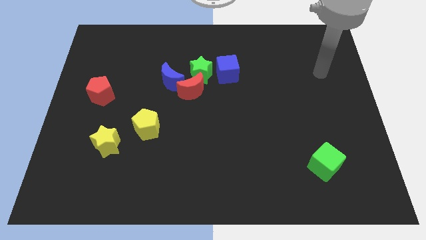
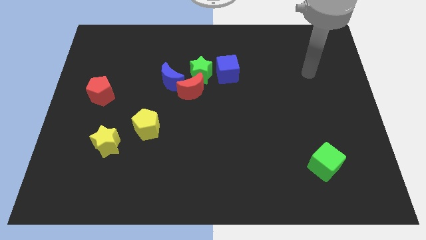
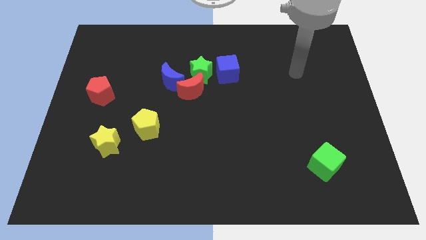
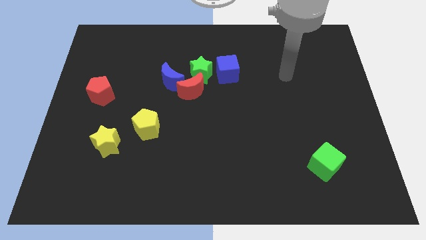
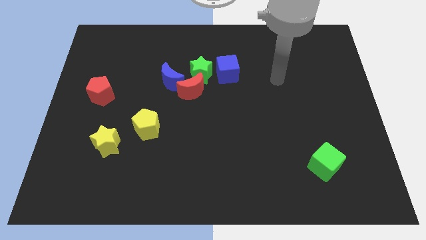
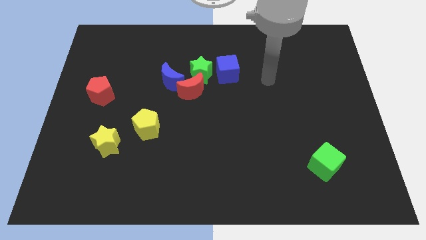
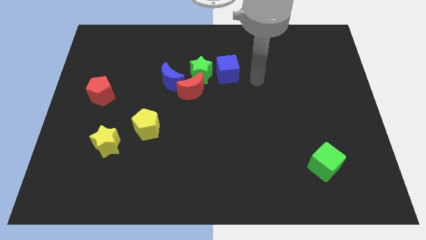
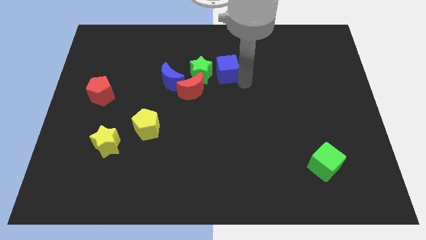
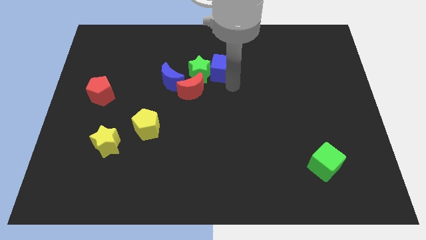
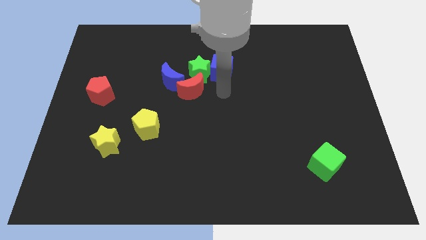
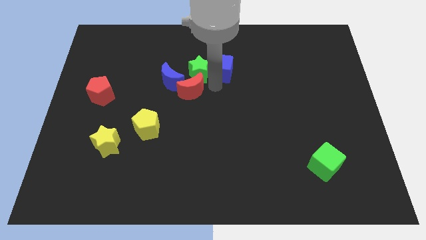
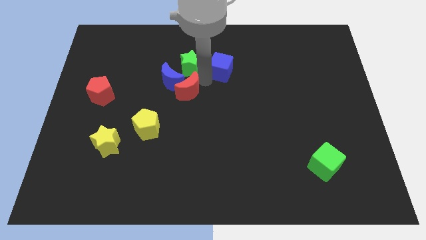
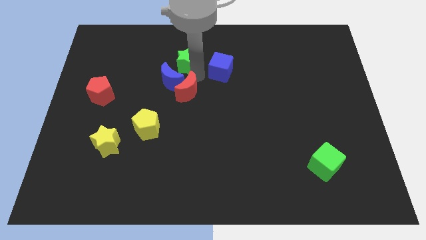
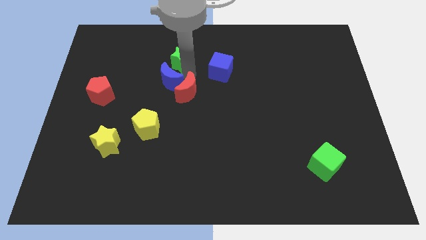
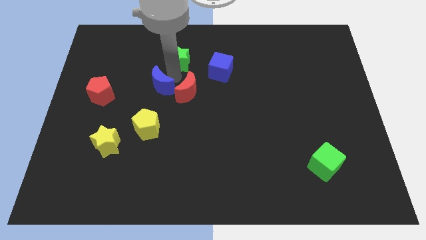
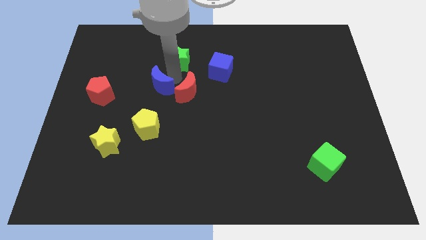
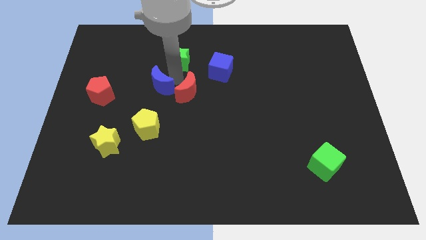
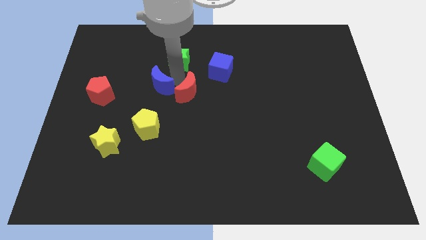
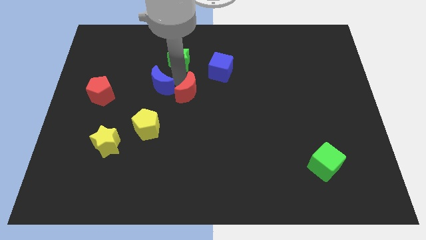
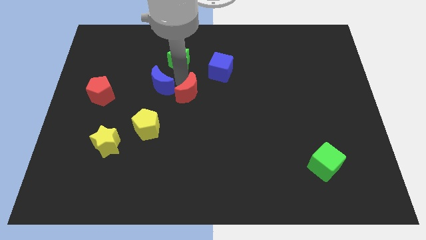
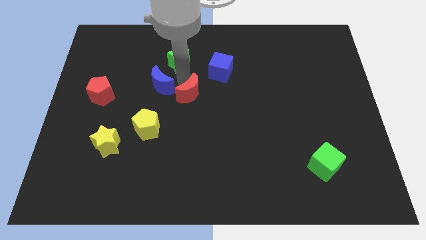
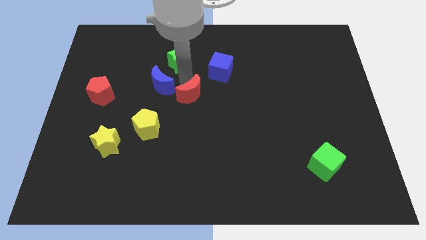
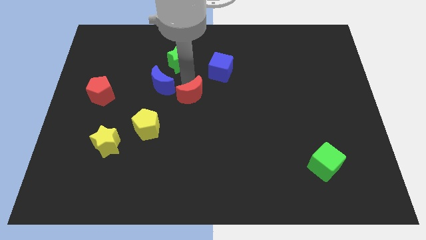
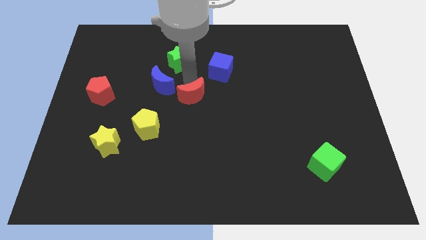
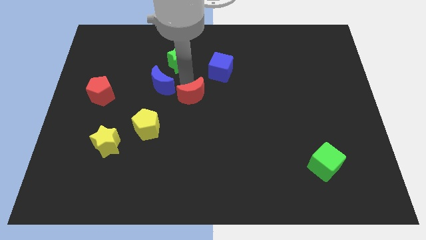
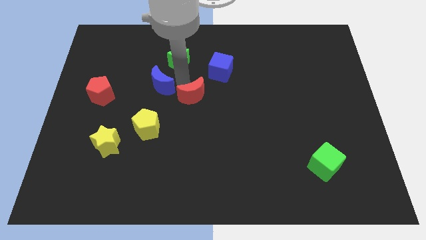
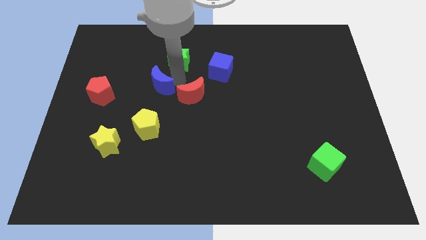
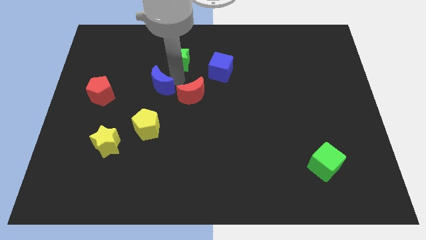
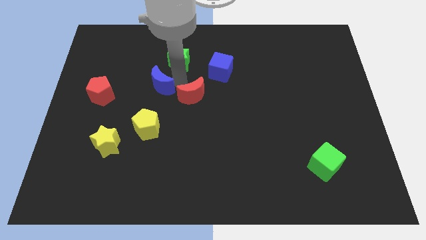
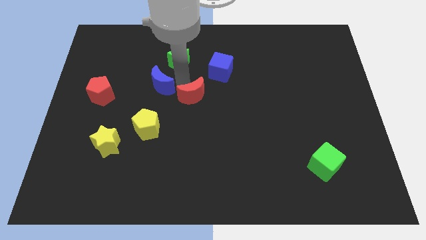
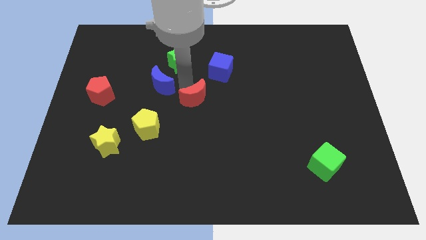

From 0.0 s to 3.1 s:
pull the red moon apart from the green star and blue moon

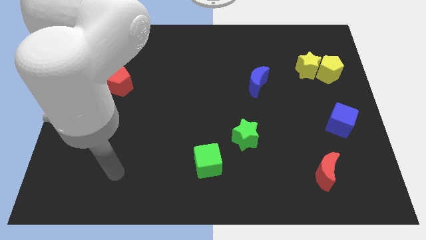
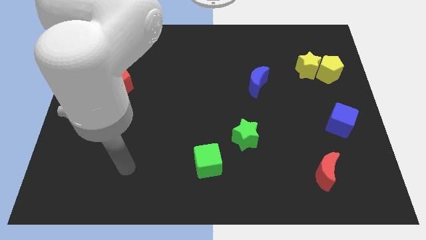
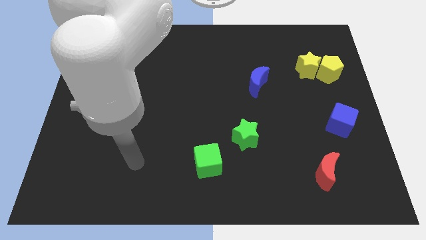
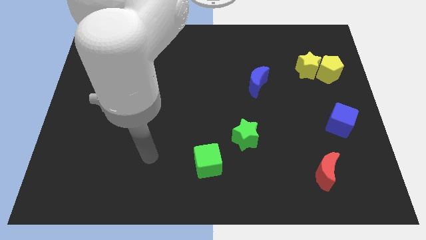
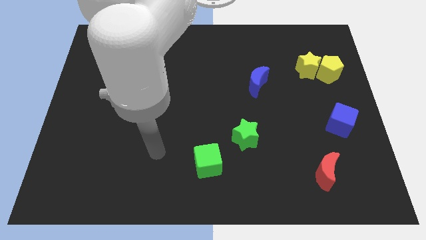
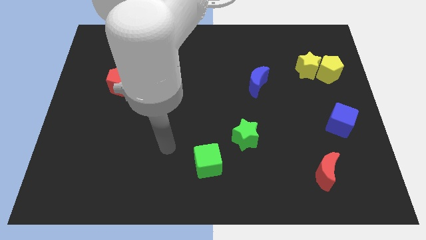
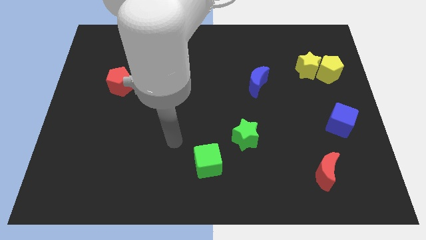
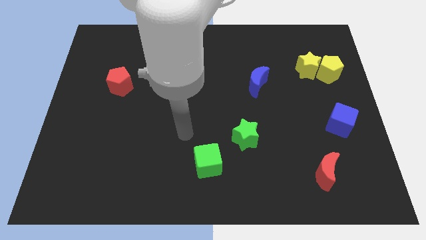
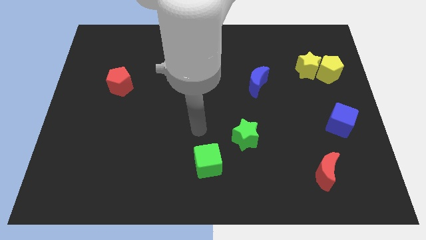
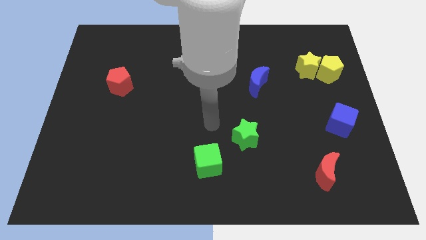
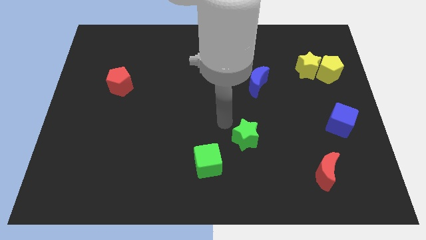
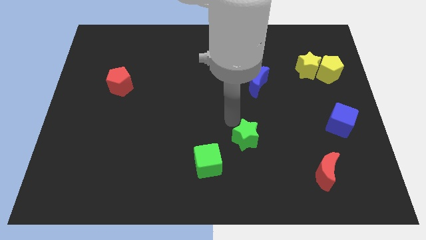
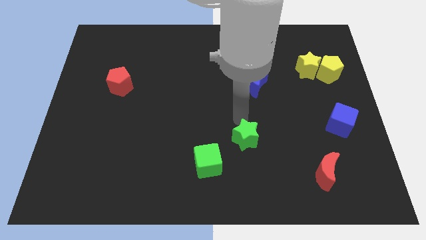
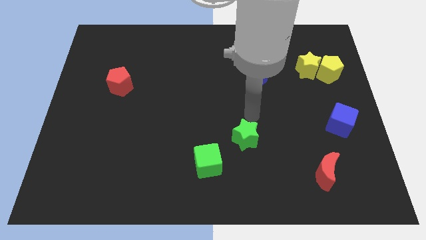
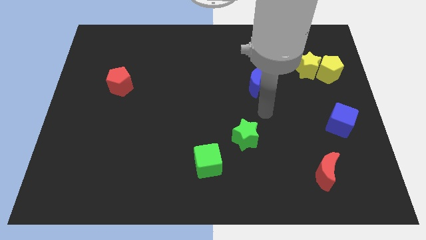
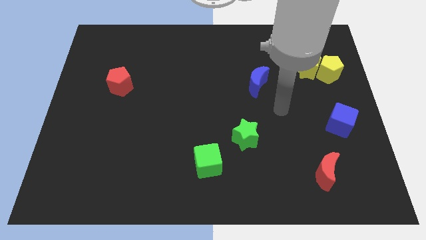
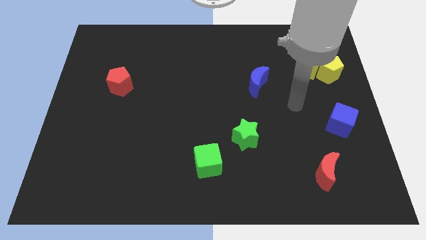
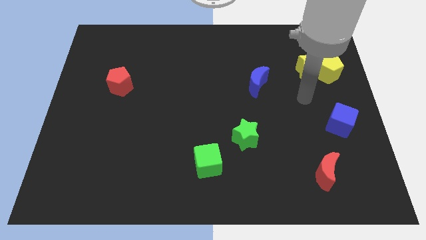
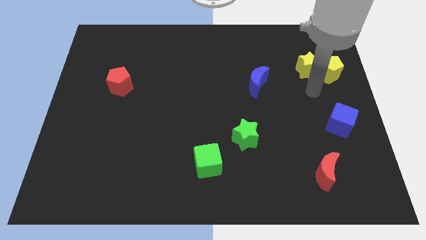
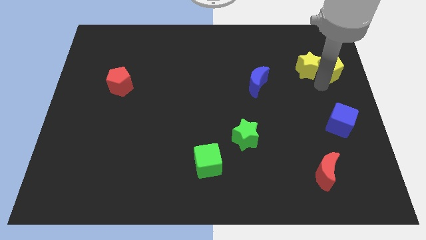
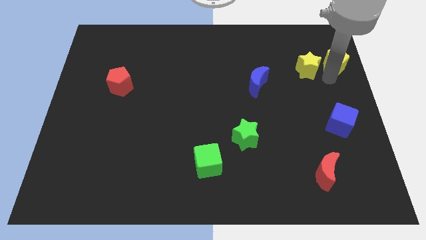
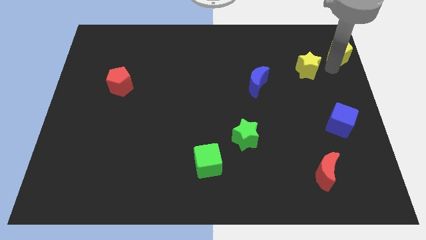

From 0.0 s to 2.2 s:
move the yellow star away from the yellow pentagon

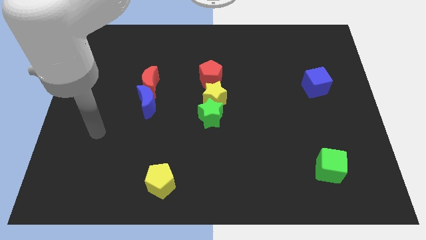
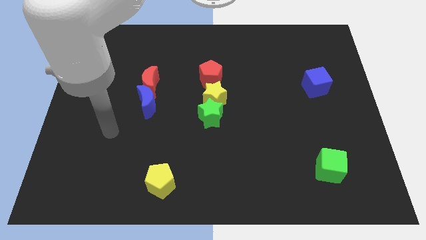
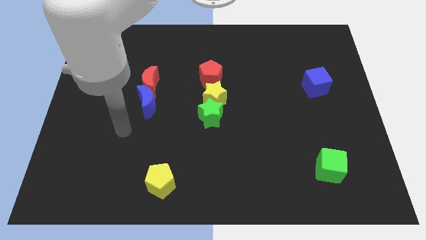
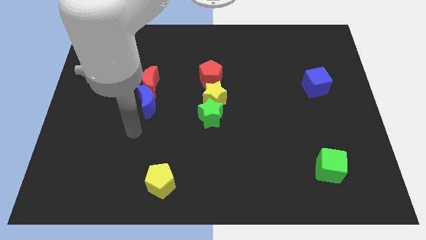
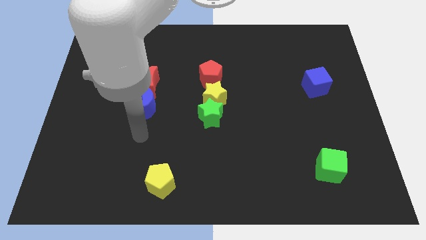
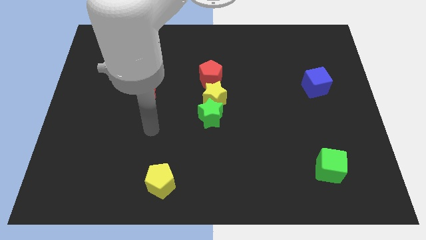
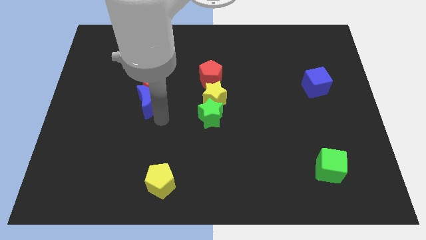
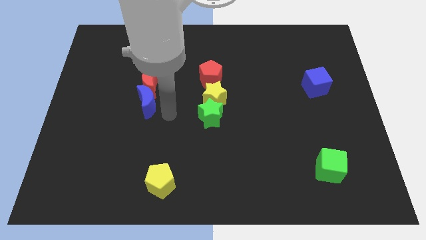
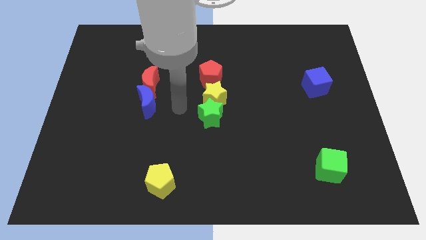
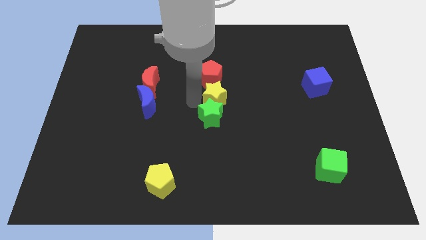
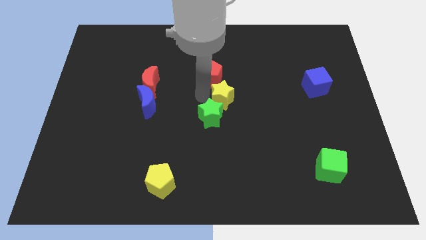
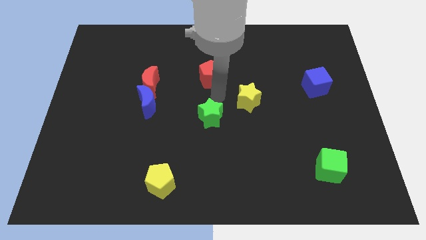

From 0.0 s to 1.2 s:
pull the green star apart from the yellow star

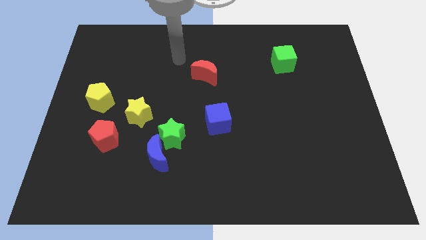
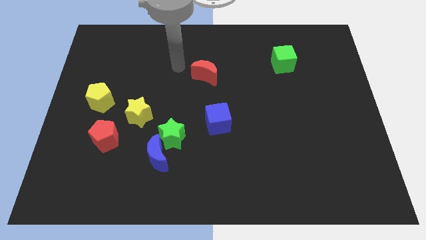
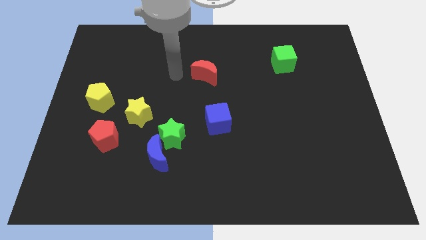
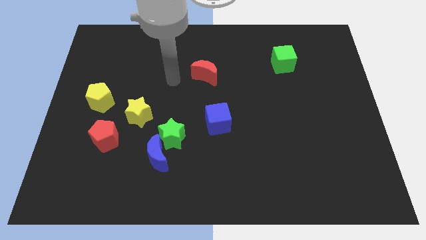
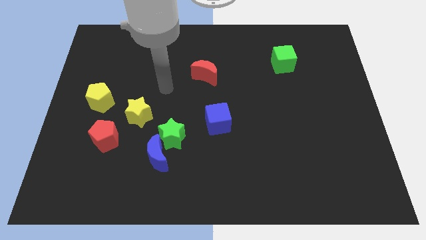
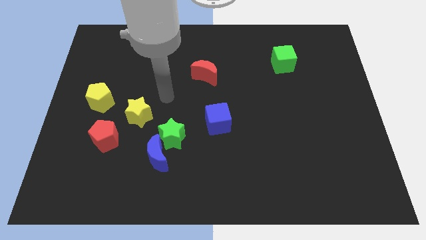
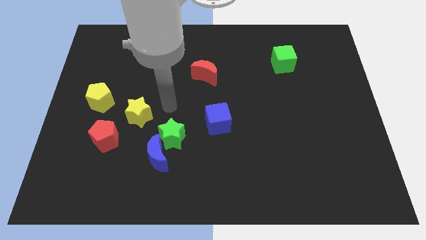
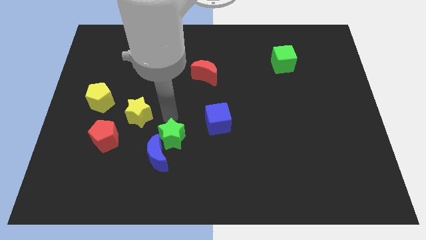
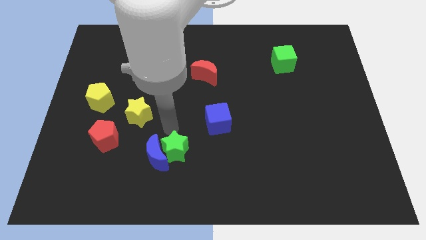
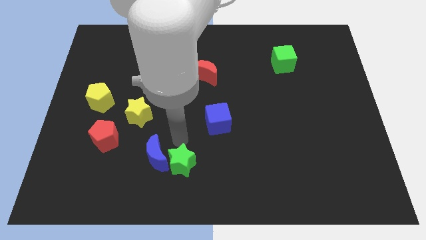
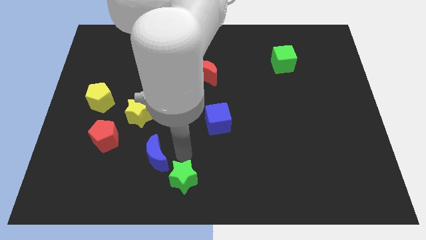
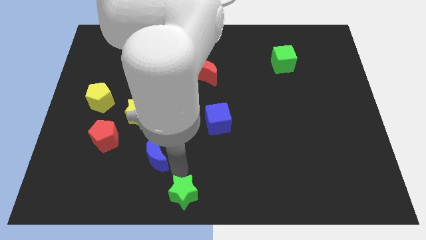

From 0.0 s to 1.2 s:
separate the blue moon from the green star

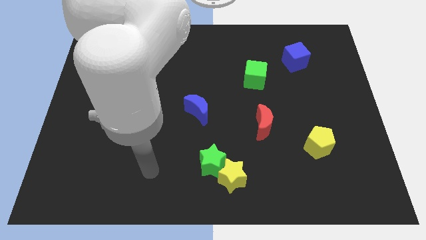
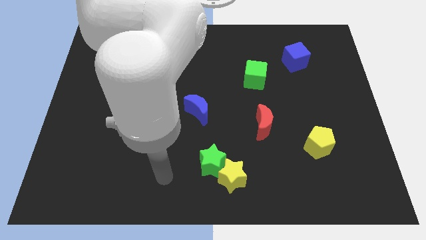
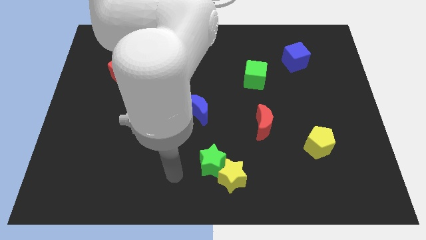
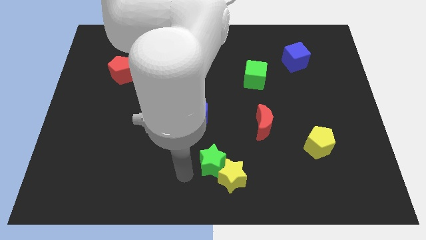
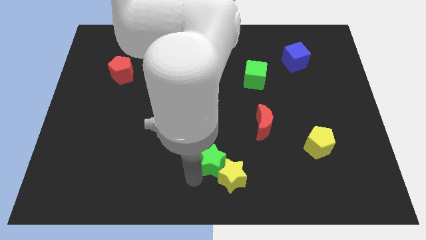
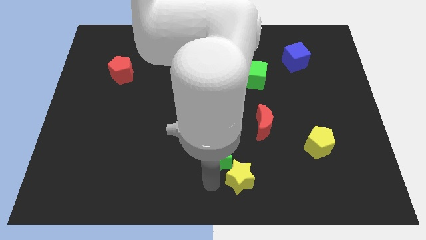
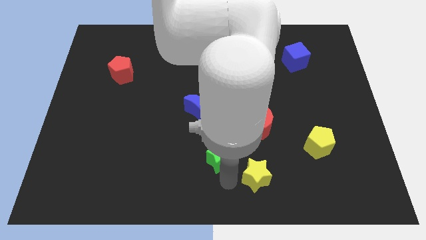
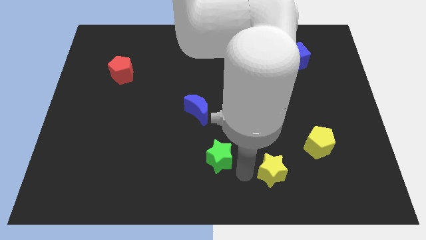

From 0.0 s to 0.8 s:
move the green star away from the yellow star

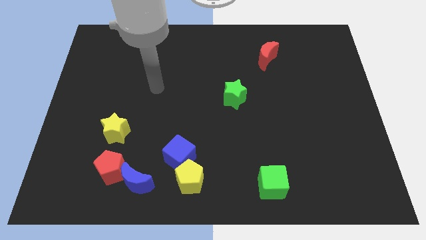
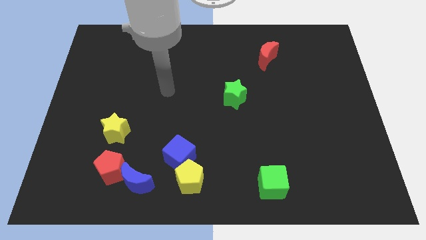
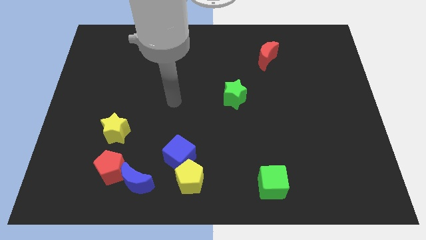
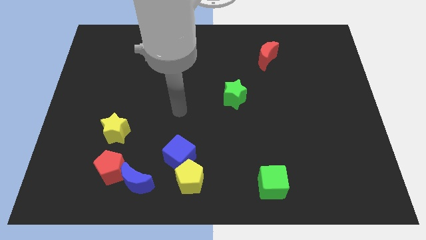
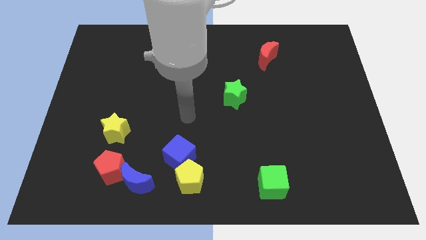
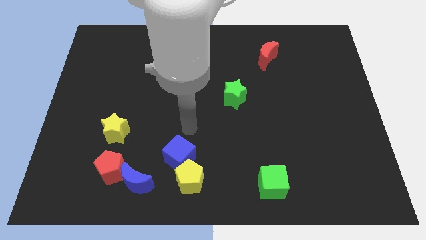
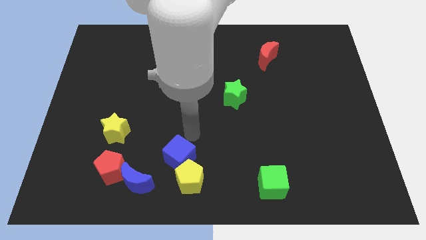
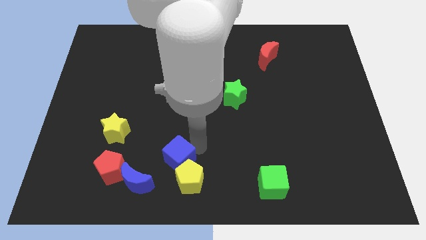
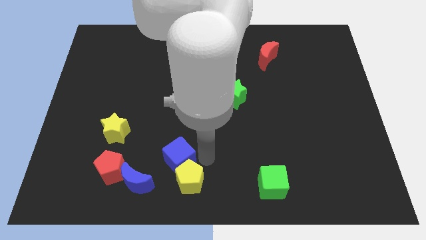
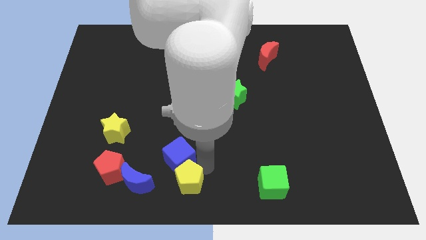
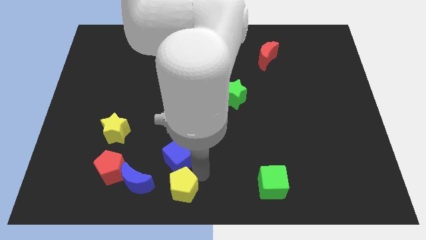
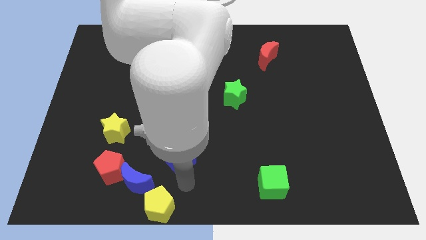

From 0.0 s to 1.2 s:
move the blue cube away from the yellow pentagon
